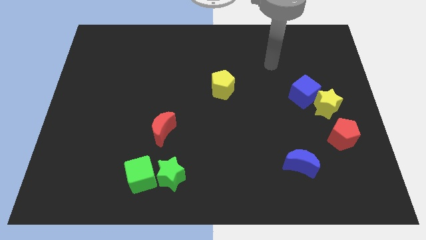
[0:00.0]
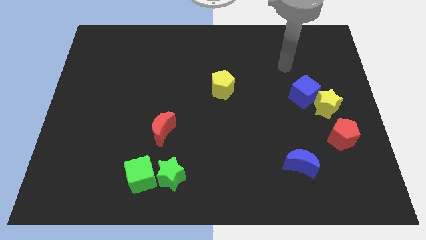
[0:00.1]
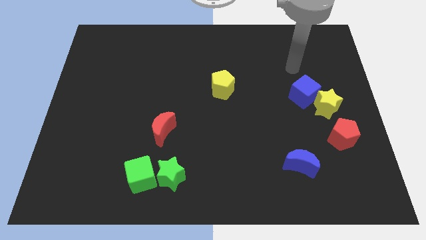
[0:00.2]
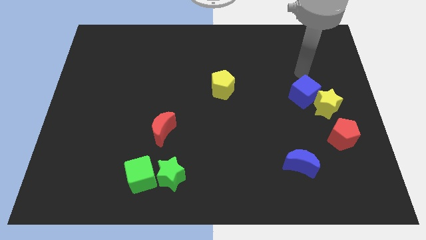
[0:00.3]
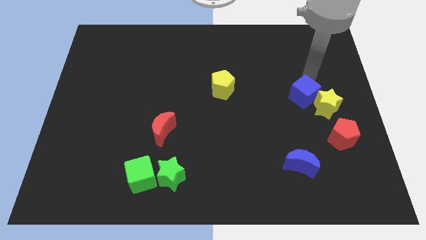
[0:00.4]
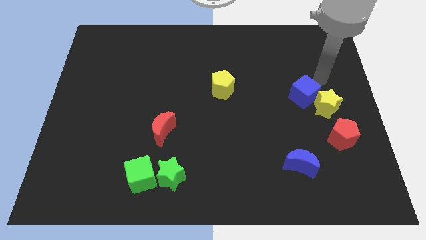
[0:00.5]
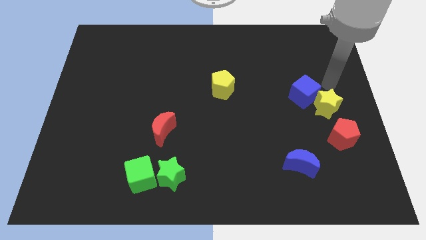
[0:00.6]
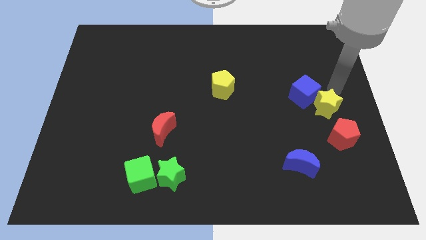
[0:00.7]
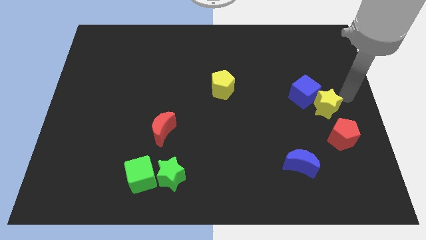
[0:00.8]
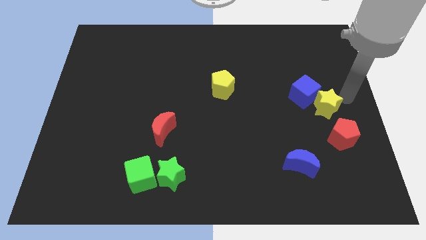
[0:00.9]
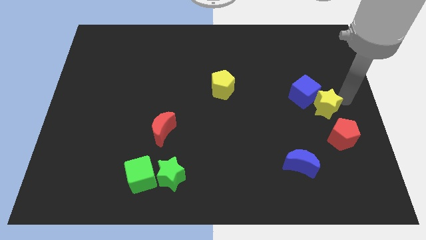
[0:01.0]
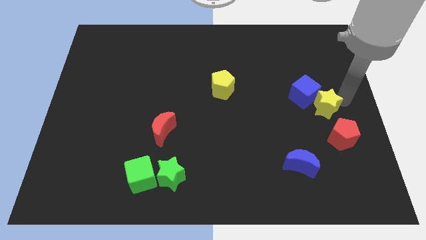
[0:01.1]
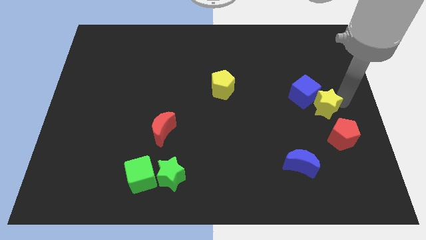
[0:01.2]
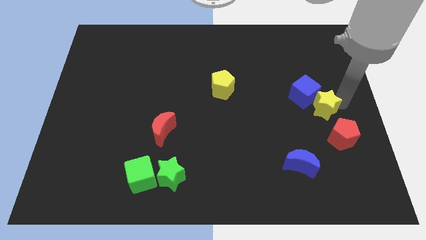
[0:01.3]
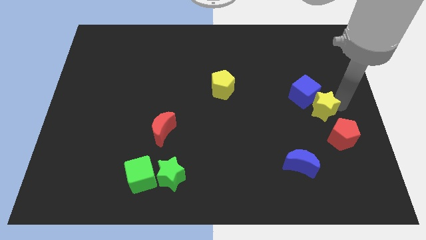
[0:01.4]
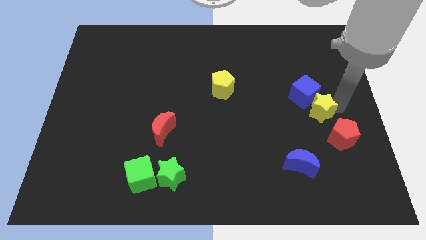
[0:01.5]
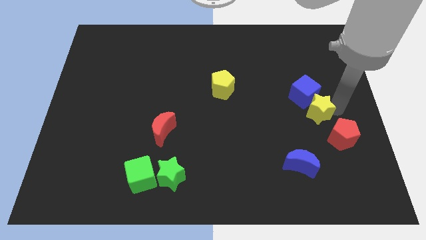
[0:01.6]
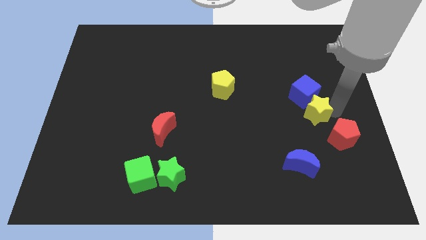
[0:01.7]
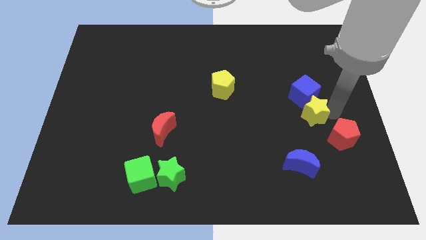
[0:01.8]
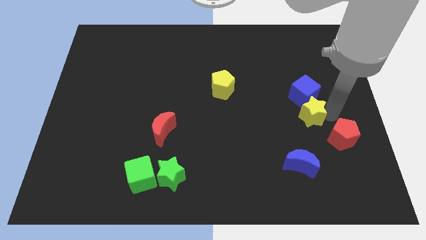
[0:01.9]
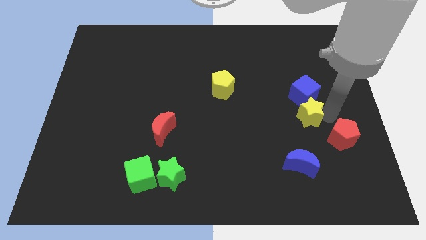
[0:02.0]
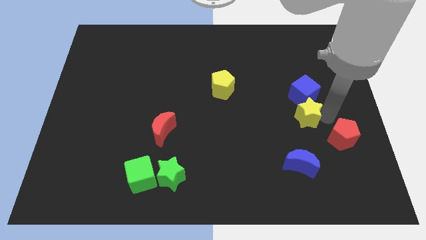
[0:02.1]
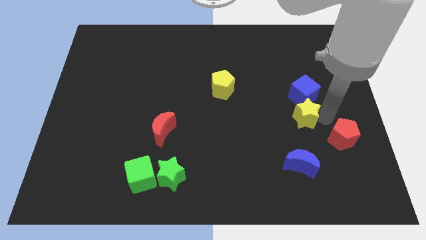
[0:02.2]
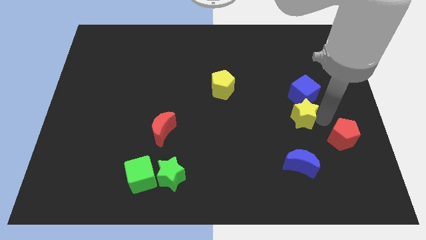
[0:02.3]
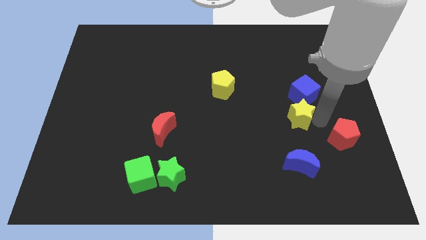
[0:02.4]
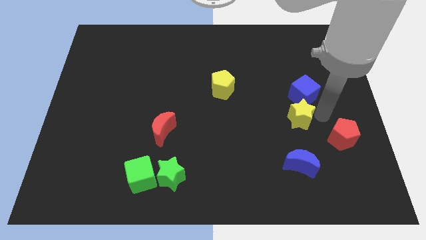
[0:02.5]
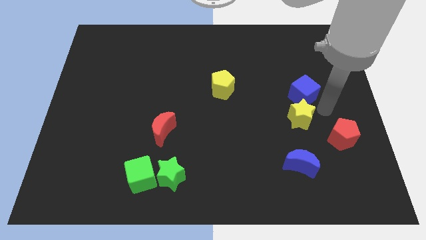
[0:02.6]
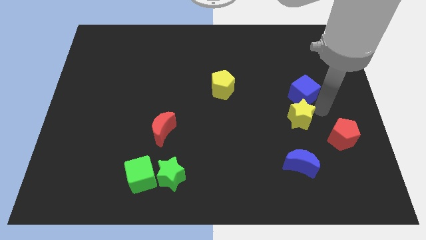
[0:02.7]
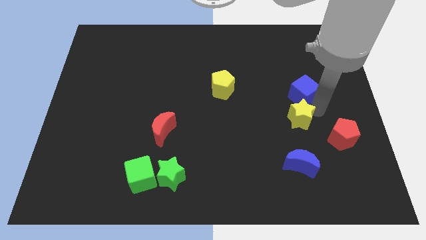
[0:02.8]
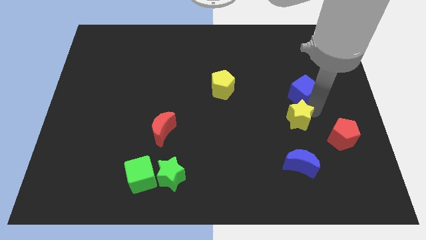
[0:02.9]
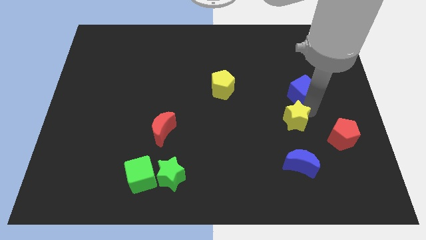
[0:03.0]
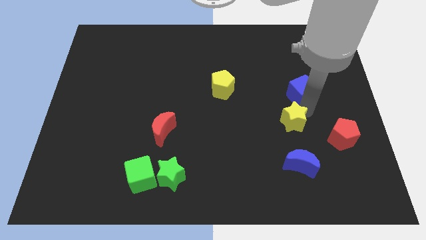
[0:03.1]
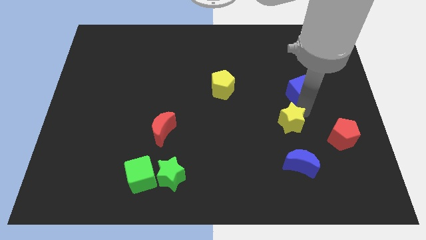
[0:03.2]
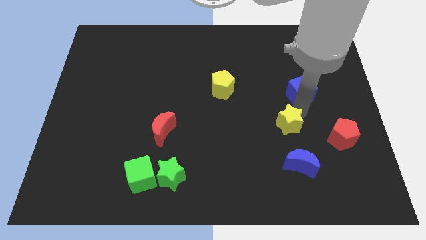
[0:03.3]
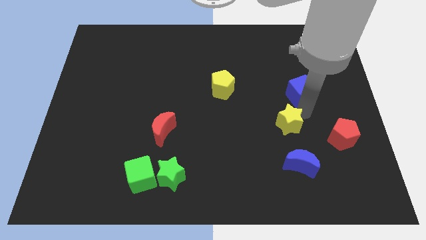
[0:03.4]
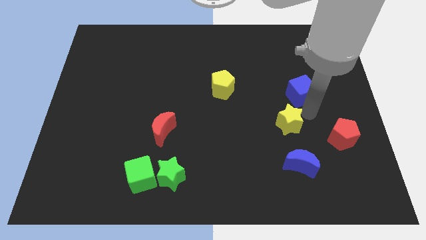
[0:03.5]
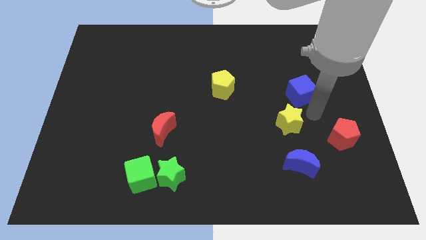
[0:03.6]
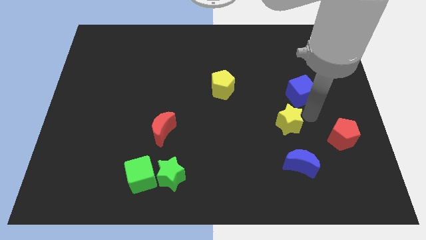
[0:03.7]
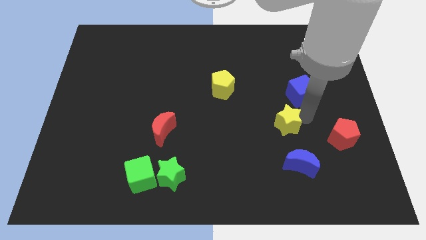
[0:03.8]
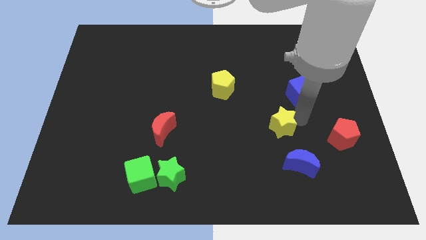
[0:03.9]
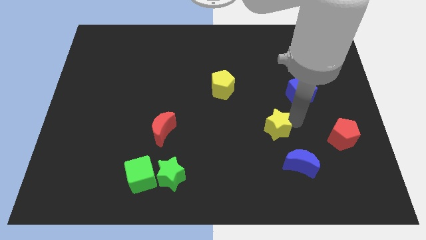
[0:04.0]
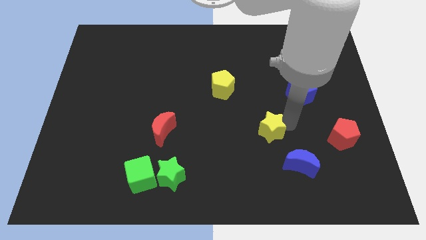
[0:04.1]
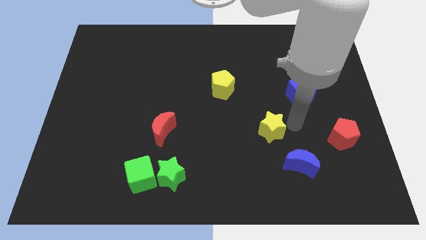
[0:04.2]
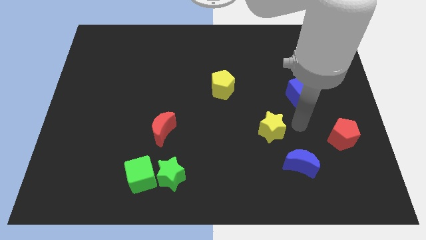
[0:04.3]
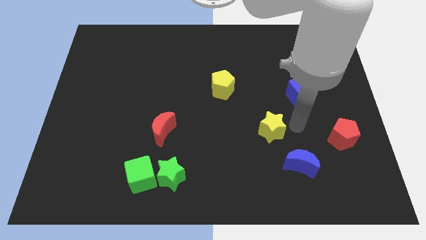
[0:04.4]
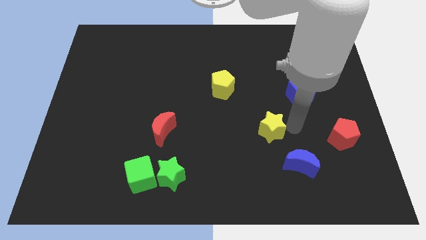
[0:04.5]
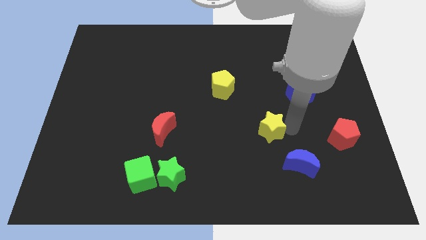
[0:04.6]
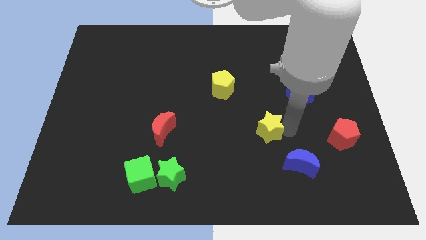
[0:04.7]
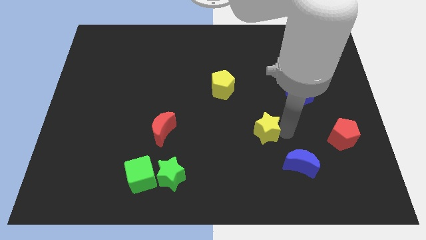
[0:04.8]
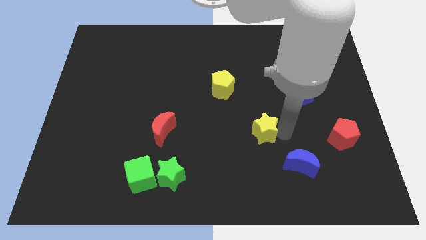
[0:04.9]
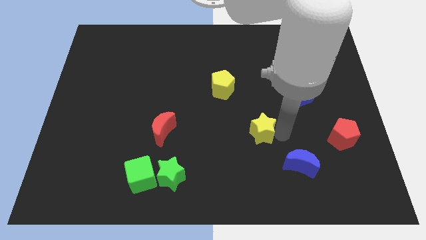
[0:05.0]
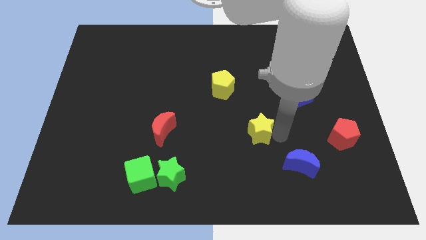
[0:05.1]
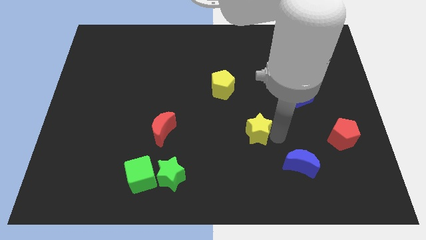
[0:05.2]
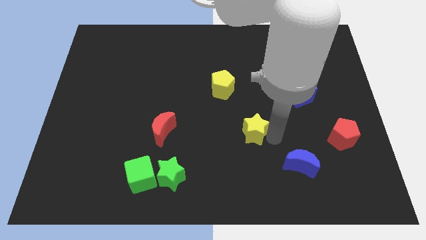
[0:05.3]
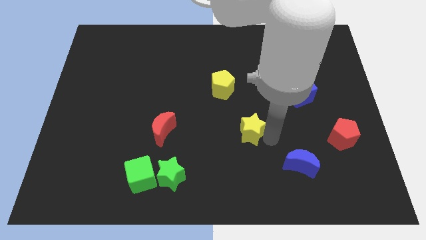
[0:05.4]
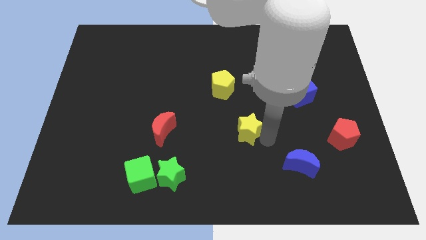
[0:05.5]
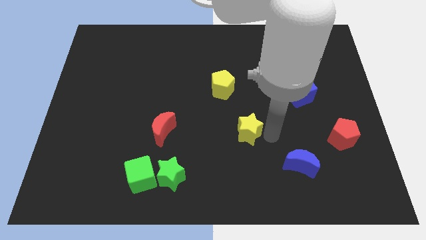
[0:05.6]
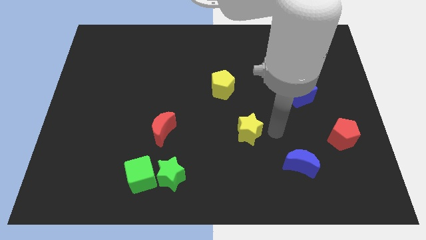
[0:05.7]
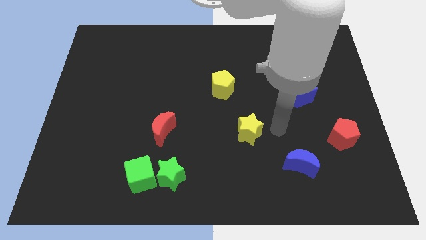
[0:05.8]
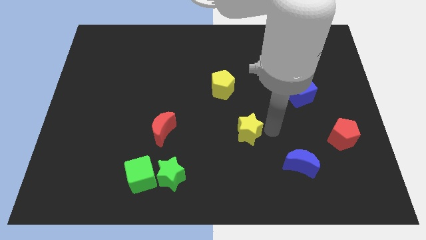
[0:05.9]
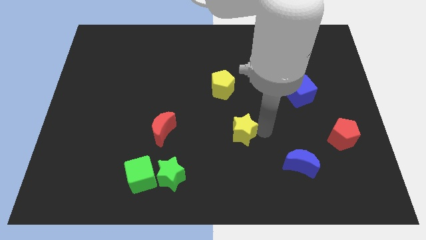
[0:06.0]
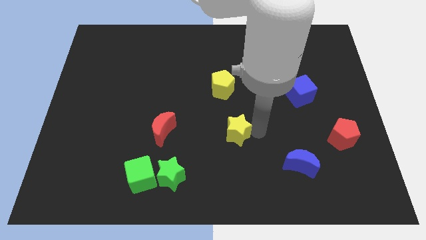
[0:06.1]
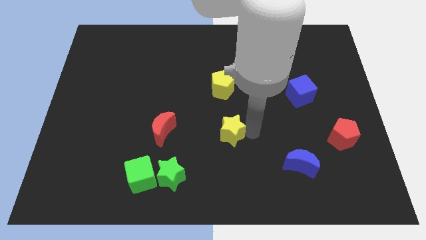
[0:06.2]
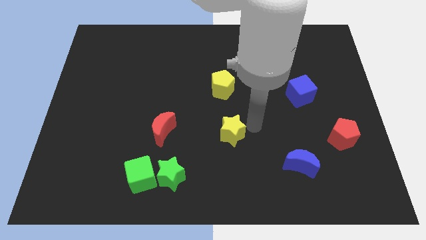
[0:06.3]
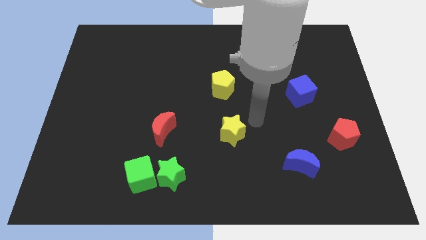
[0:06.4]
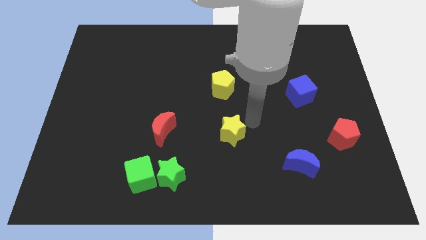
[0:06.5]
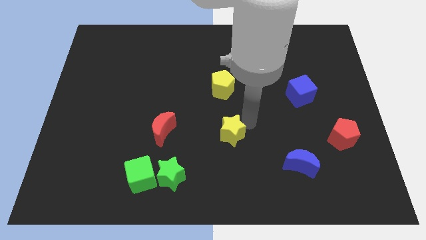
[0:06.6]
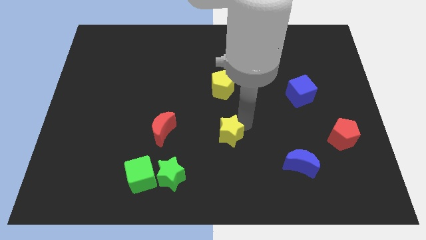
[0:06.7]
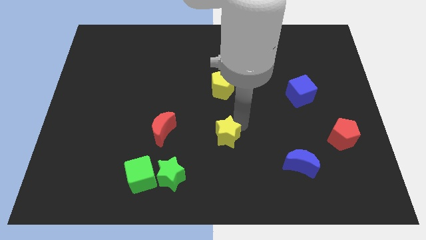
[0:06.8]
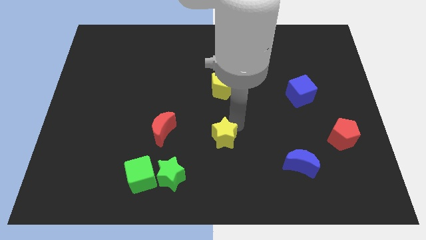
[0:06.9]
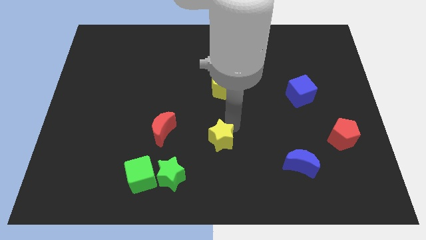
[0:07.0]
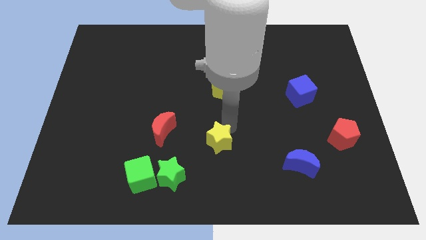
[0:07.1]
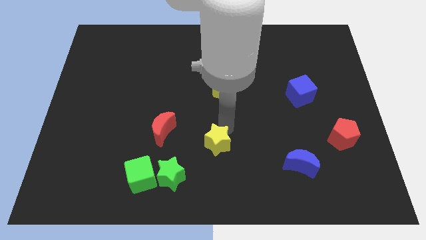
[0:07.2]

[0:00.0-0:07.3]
move the yellow star to the top right side of the green star
